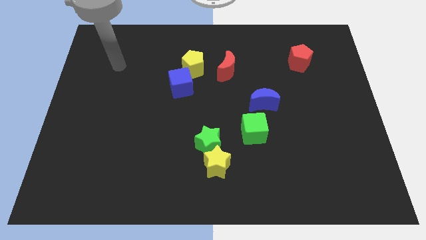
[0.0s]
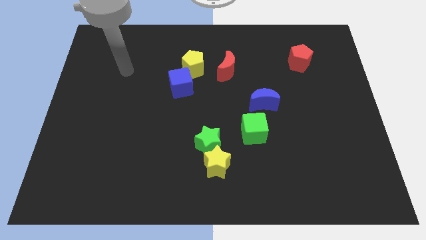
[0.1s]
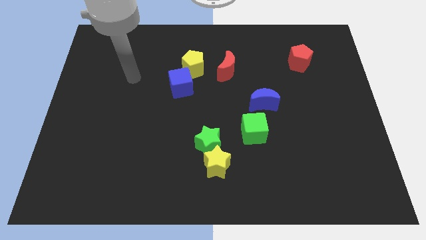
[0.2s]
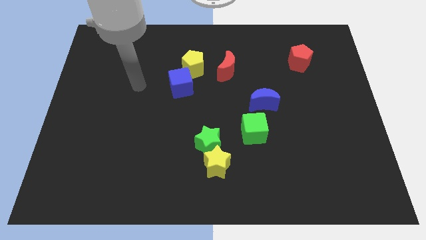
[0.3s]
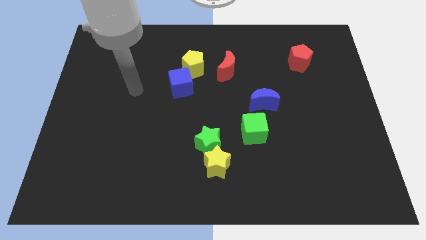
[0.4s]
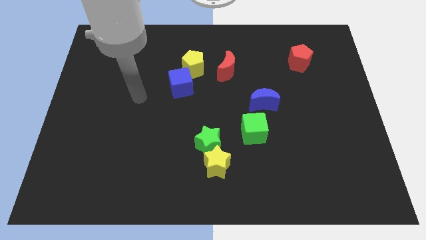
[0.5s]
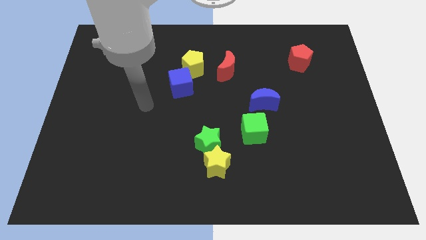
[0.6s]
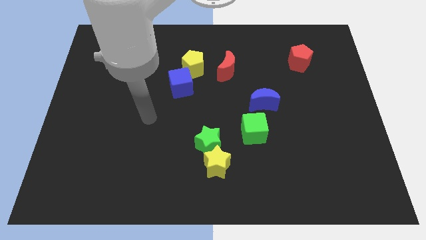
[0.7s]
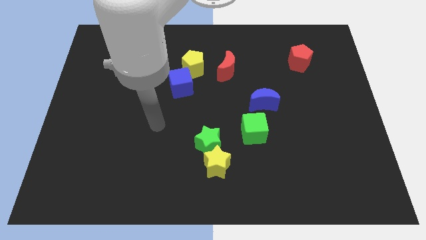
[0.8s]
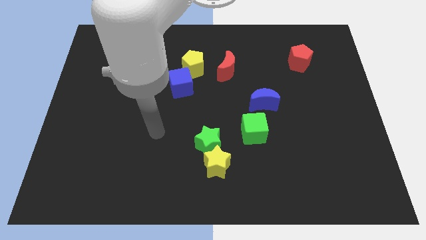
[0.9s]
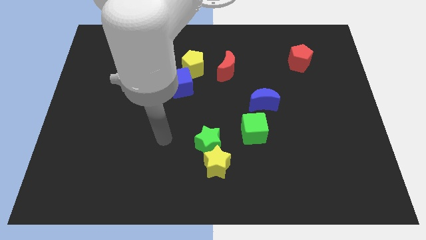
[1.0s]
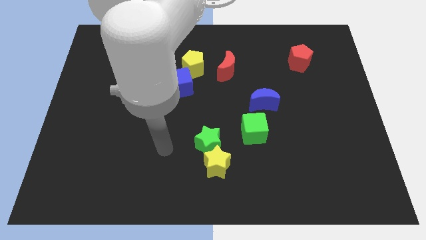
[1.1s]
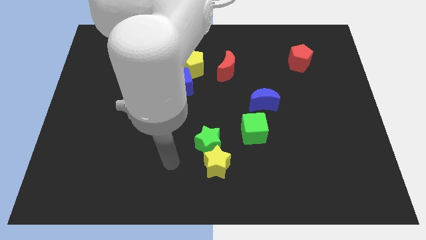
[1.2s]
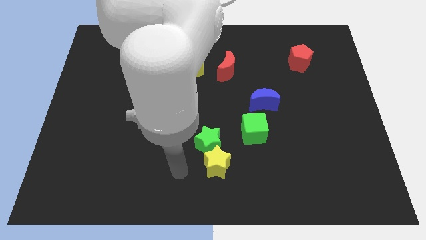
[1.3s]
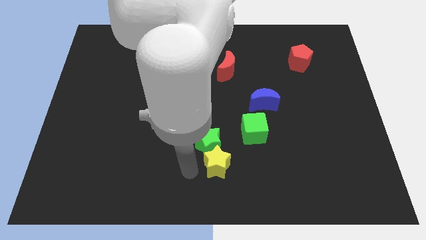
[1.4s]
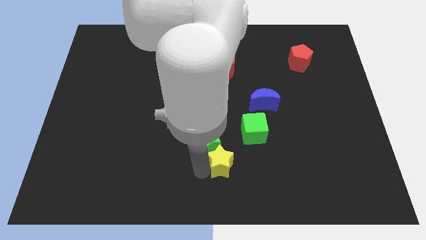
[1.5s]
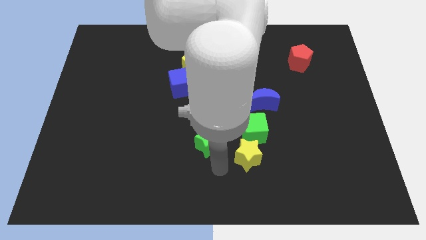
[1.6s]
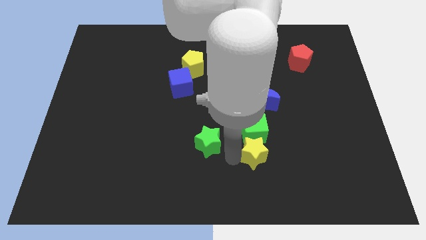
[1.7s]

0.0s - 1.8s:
pull the green star apart from the yellow star

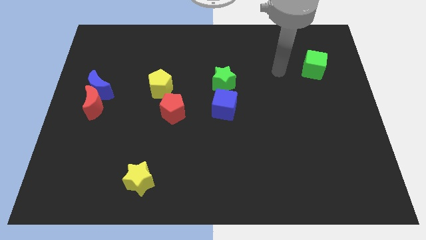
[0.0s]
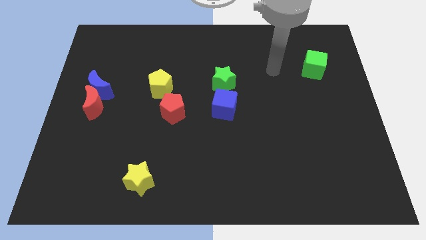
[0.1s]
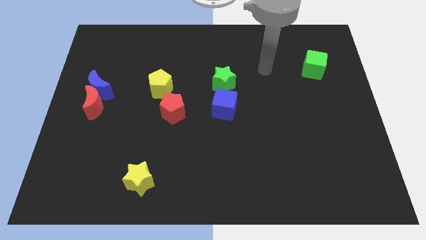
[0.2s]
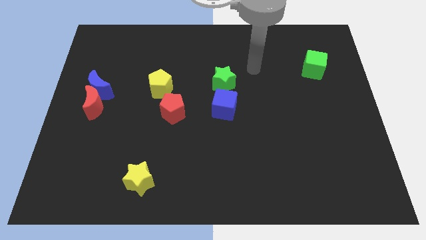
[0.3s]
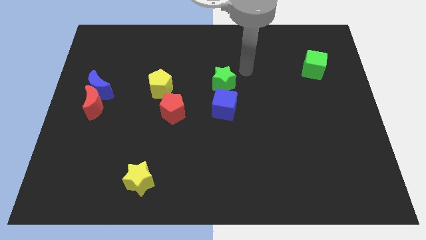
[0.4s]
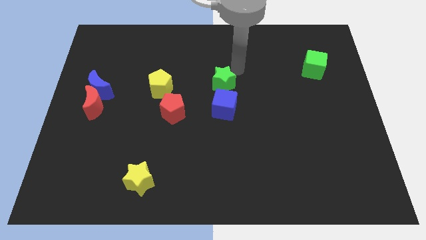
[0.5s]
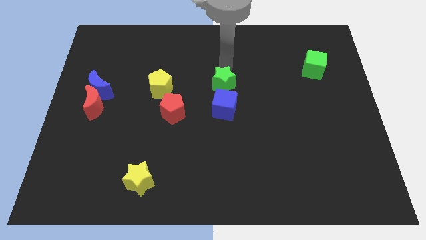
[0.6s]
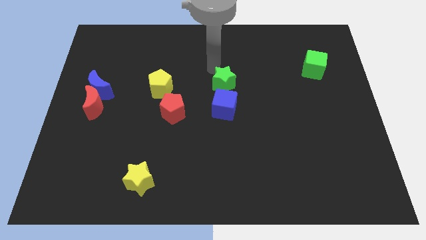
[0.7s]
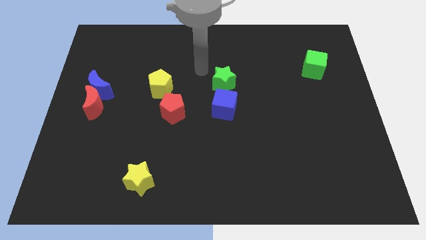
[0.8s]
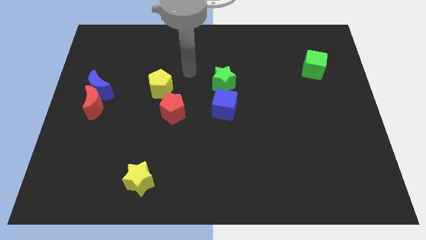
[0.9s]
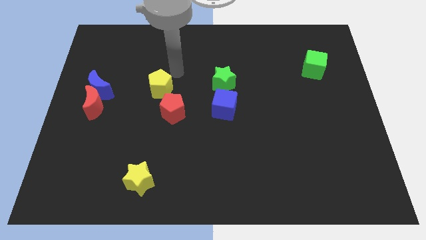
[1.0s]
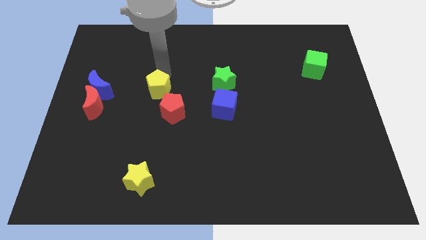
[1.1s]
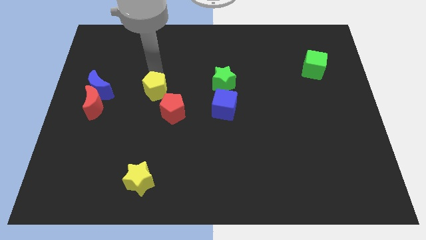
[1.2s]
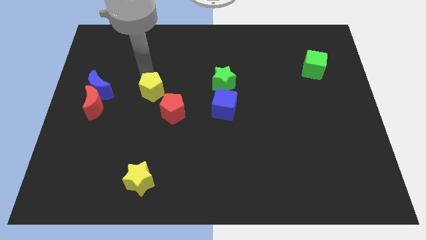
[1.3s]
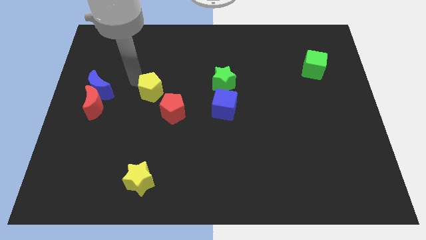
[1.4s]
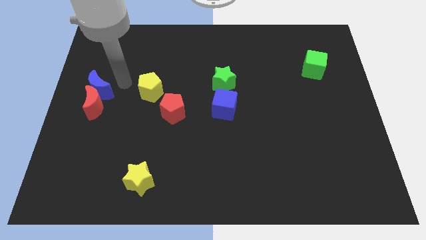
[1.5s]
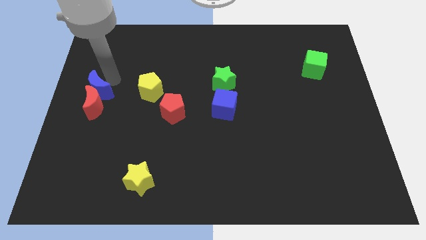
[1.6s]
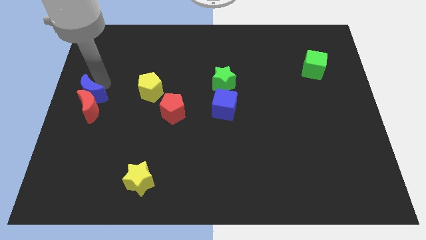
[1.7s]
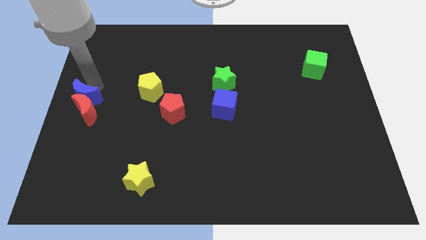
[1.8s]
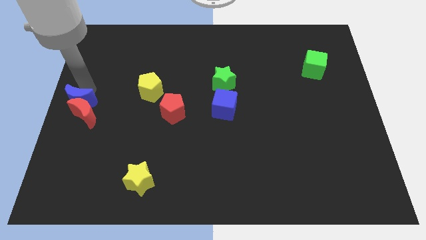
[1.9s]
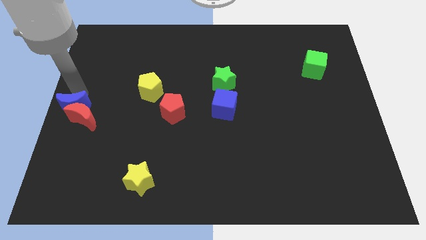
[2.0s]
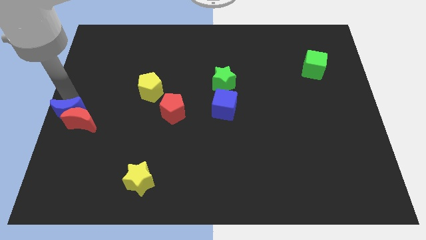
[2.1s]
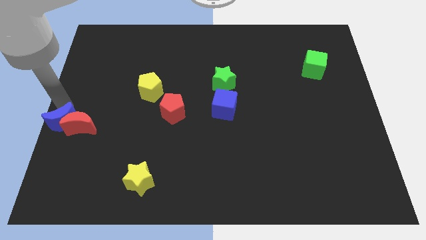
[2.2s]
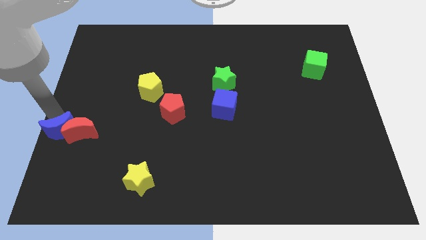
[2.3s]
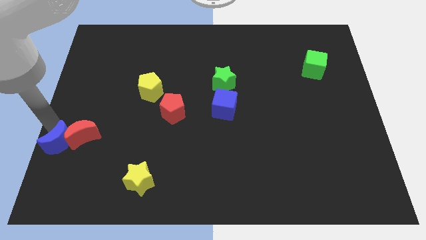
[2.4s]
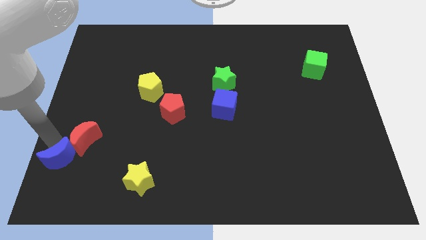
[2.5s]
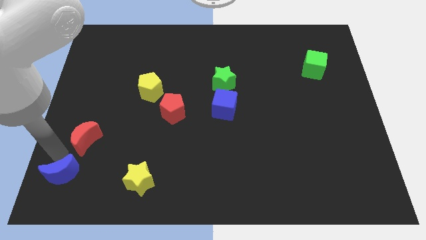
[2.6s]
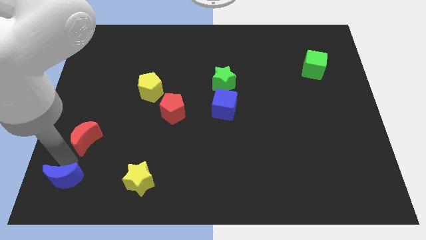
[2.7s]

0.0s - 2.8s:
separate the red moon from the blue moon

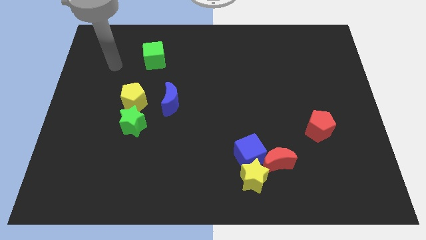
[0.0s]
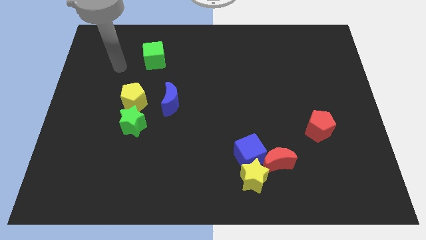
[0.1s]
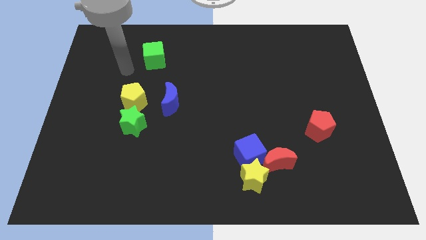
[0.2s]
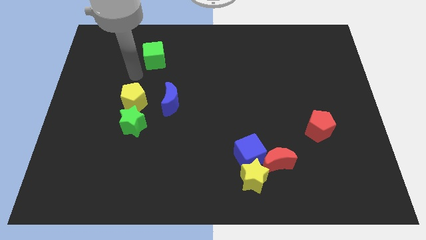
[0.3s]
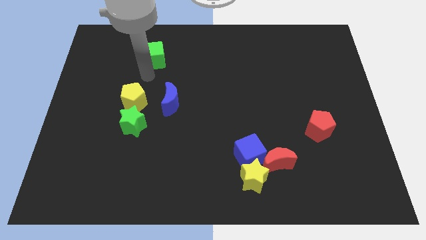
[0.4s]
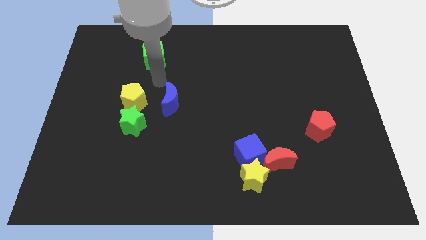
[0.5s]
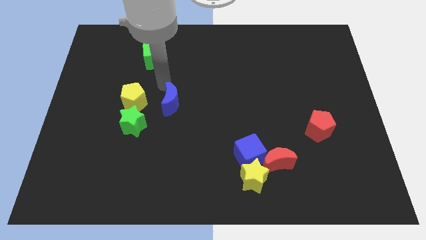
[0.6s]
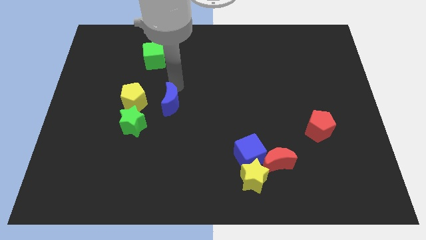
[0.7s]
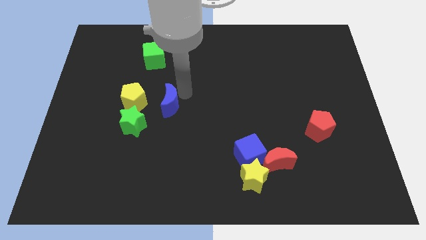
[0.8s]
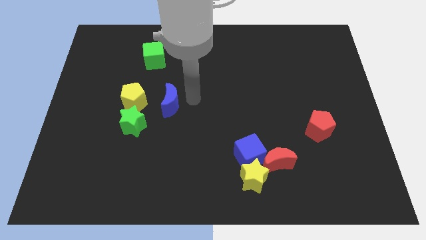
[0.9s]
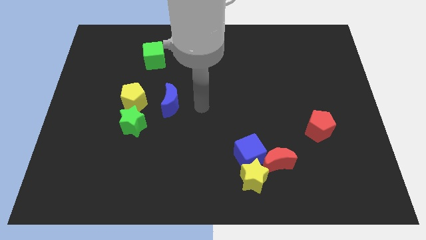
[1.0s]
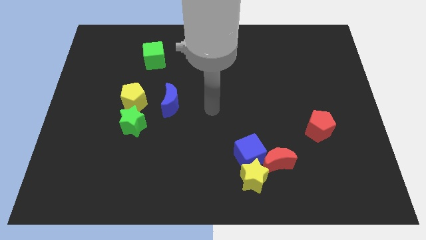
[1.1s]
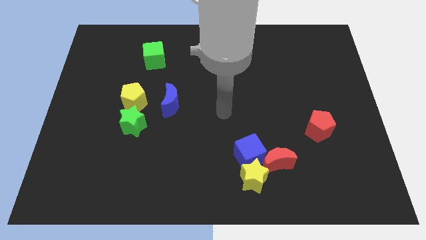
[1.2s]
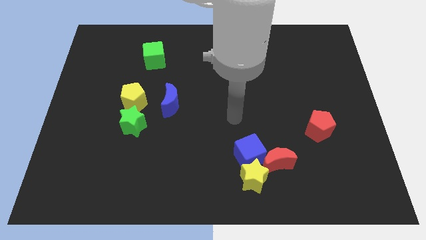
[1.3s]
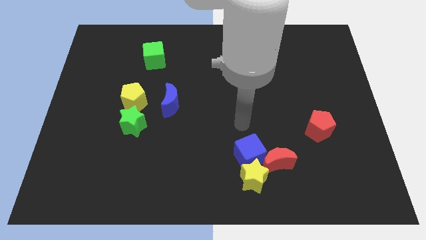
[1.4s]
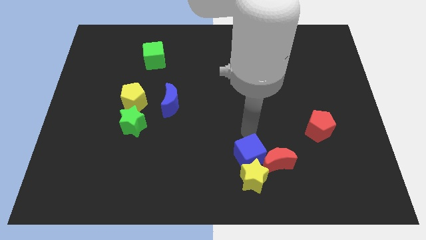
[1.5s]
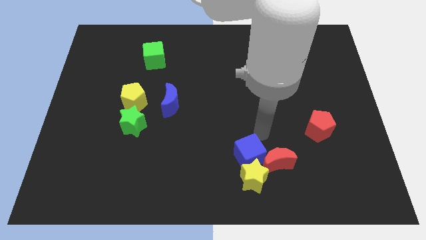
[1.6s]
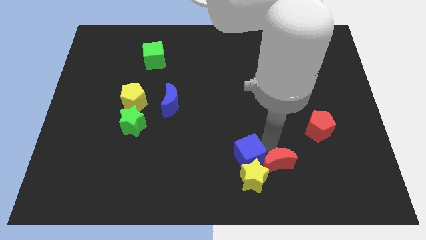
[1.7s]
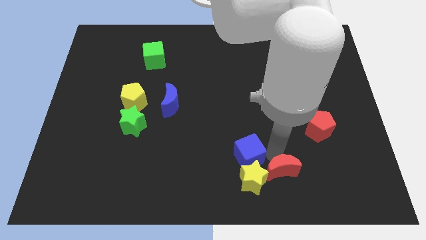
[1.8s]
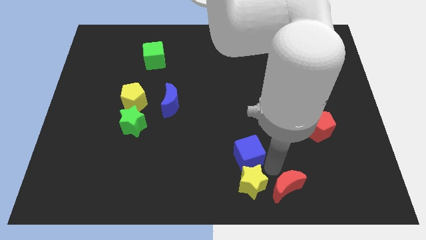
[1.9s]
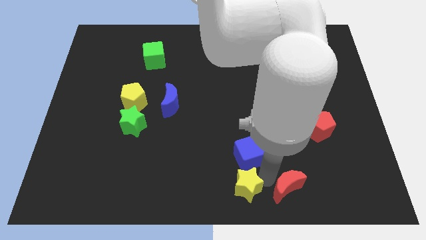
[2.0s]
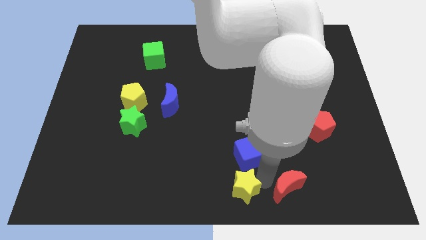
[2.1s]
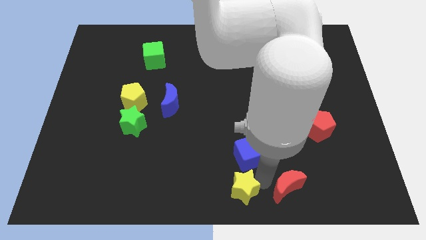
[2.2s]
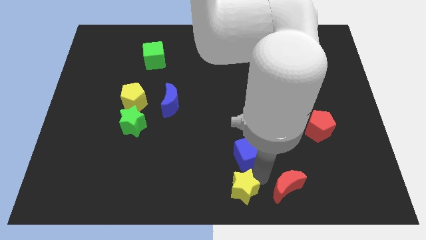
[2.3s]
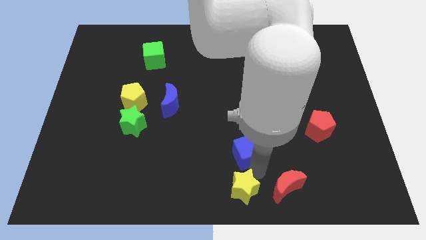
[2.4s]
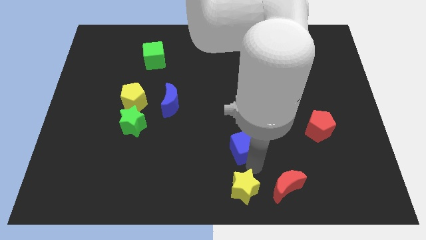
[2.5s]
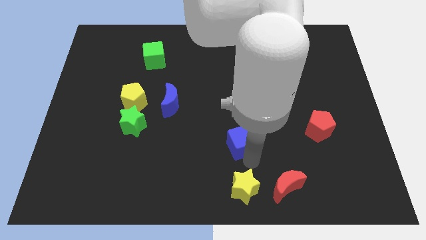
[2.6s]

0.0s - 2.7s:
pull the blue cube apart from the yellow star and red moon

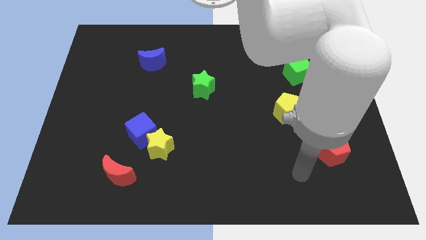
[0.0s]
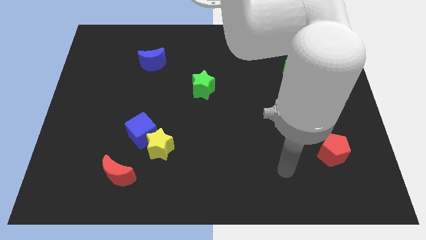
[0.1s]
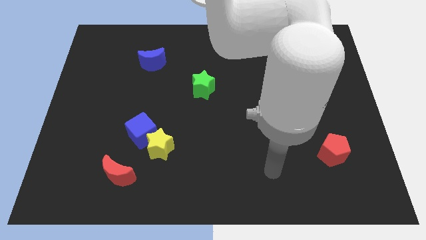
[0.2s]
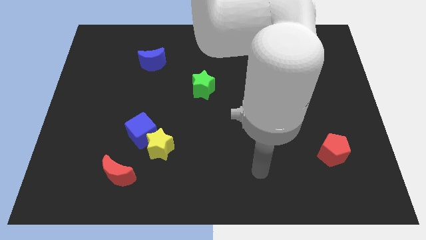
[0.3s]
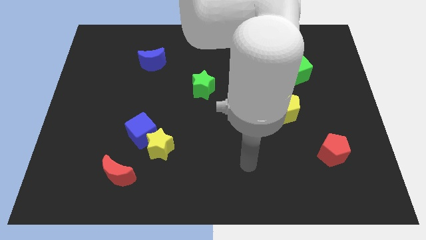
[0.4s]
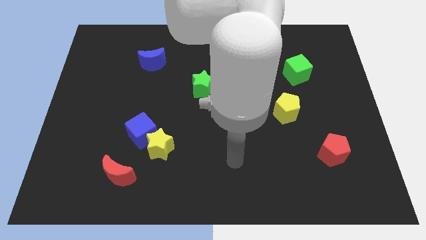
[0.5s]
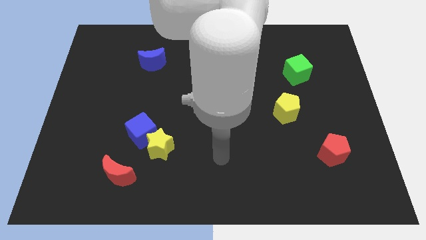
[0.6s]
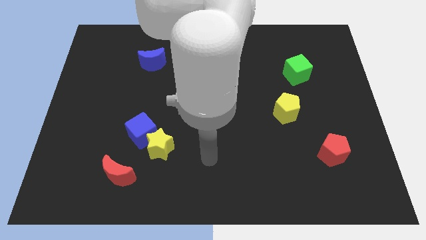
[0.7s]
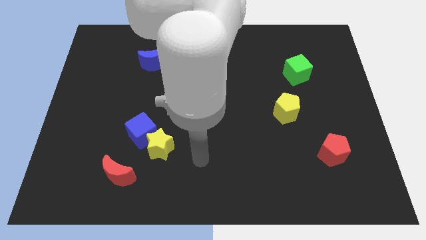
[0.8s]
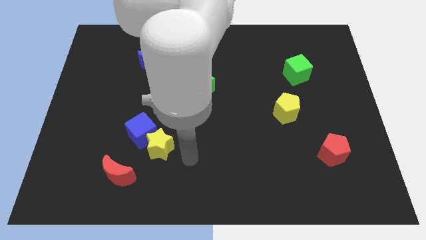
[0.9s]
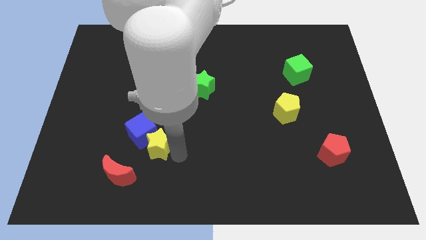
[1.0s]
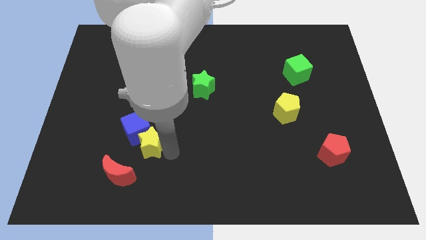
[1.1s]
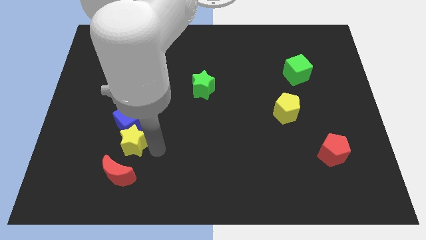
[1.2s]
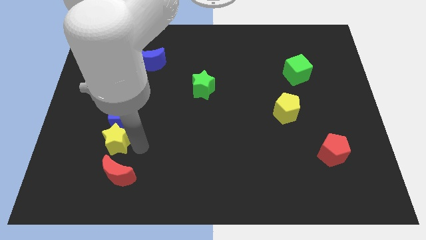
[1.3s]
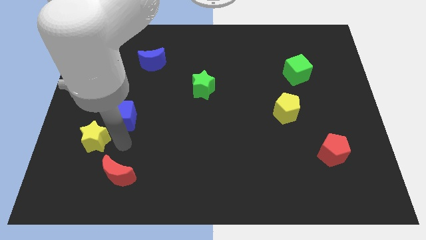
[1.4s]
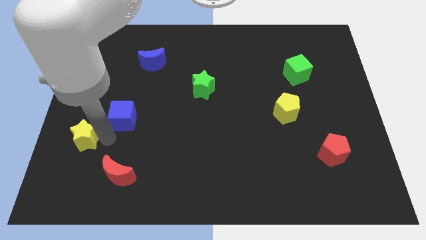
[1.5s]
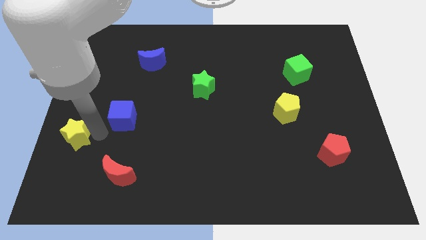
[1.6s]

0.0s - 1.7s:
separate the blue cube from the yellow star

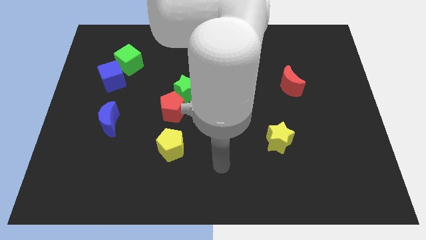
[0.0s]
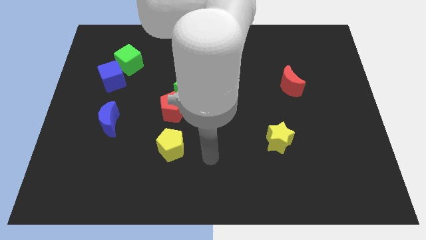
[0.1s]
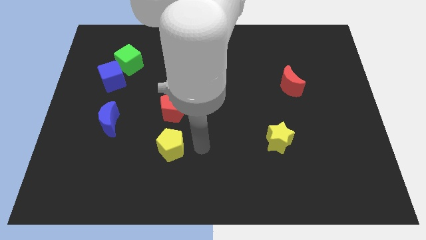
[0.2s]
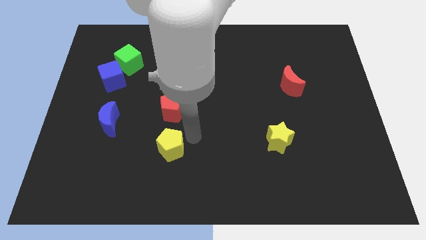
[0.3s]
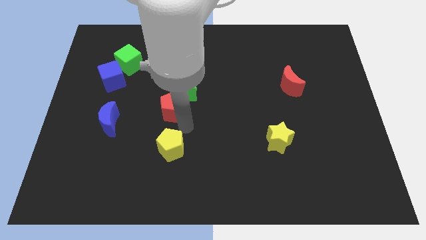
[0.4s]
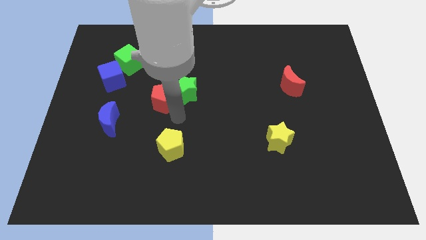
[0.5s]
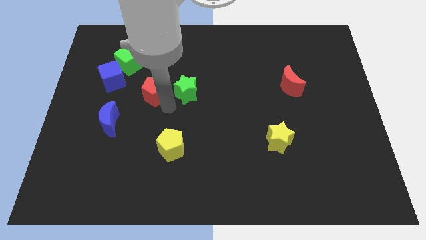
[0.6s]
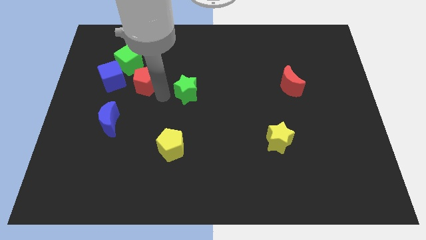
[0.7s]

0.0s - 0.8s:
move the green star away from the red pentagon
